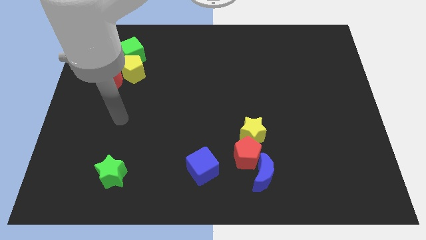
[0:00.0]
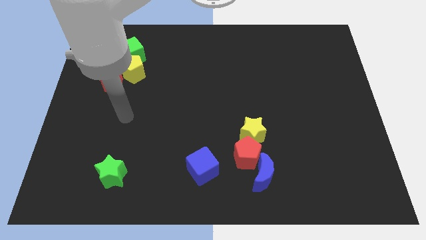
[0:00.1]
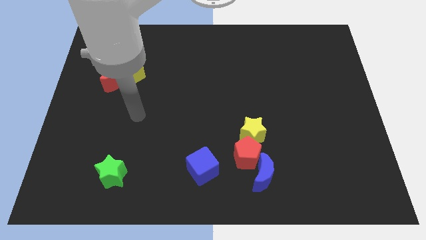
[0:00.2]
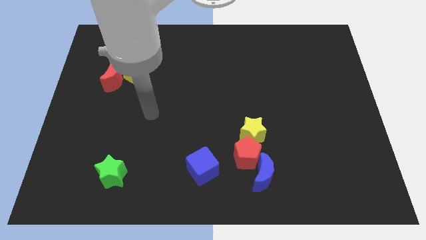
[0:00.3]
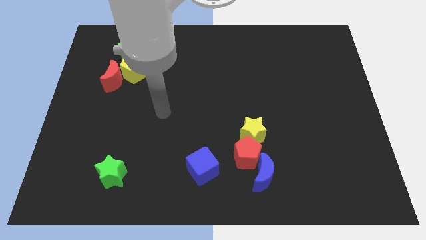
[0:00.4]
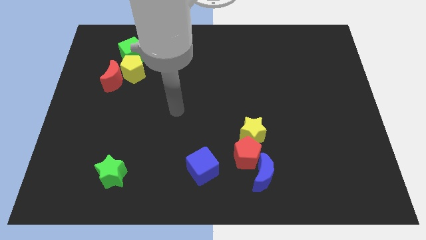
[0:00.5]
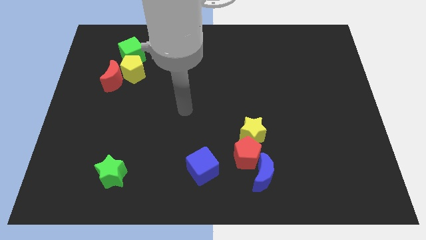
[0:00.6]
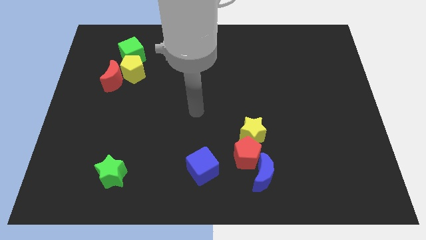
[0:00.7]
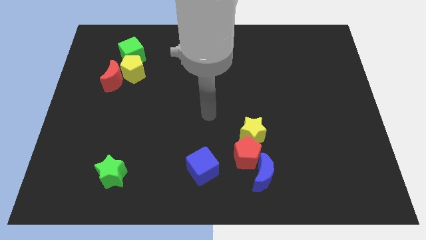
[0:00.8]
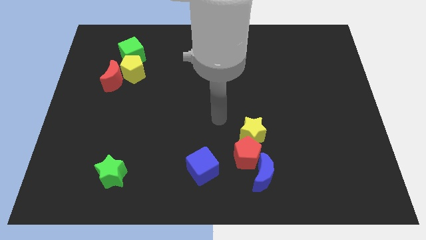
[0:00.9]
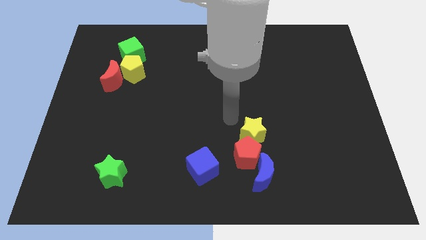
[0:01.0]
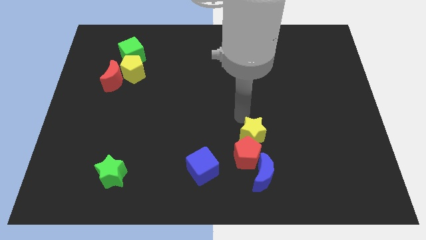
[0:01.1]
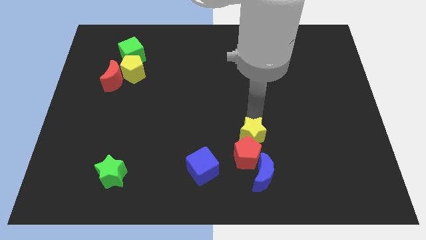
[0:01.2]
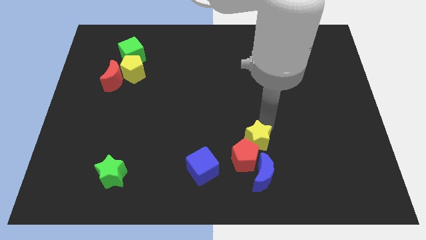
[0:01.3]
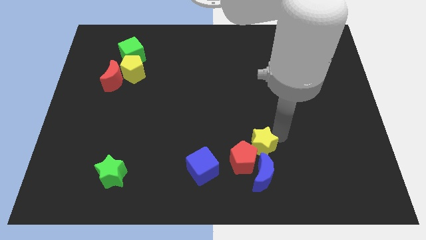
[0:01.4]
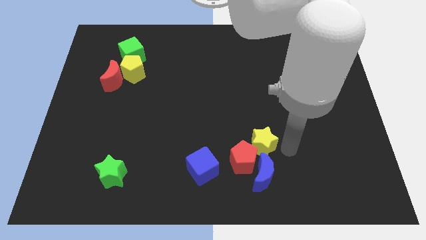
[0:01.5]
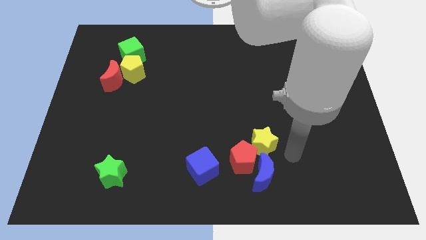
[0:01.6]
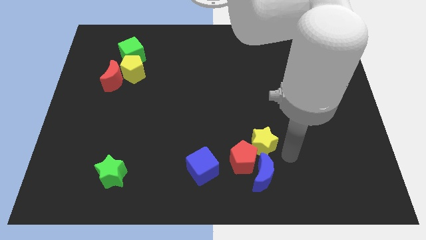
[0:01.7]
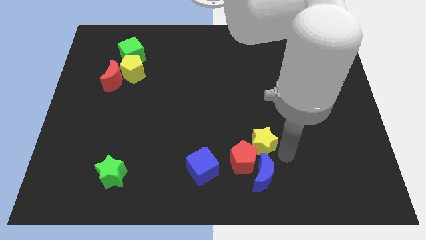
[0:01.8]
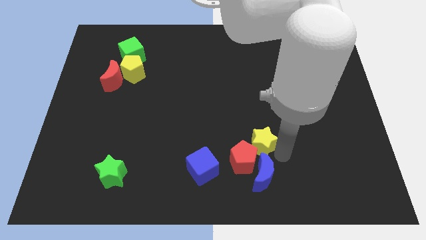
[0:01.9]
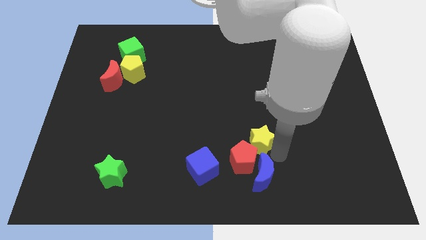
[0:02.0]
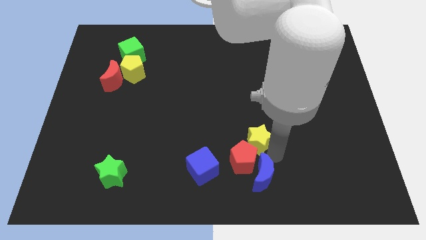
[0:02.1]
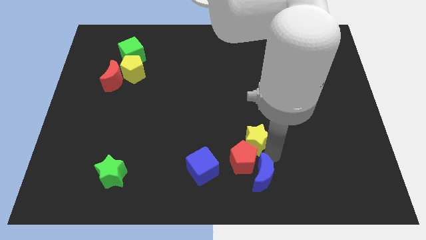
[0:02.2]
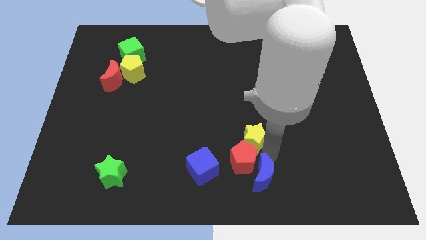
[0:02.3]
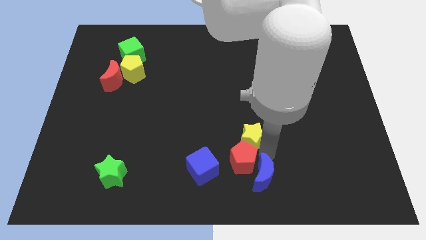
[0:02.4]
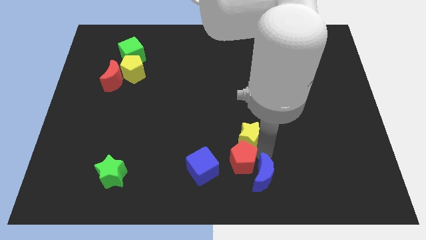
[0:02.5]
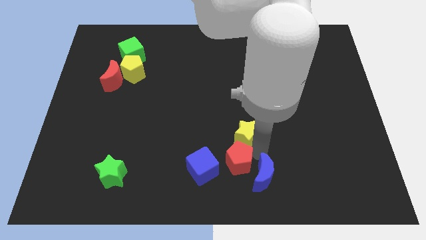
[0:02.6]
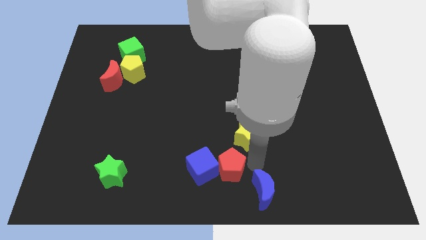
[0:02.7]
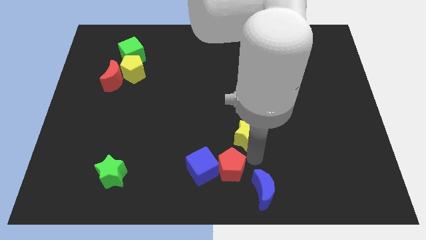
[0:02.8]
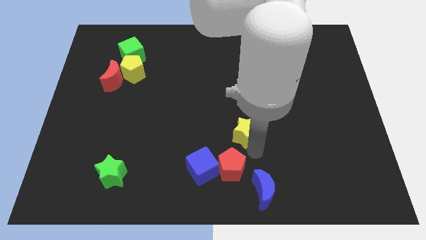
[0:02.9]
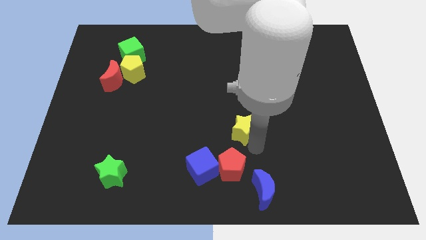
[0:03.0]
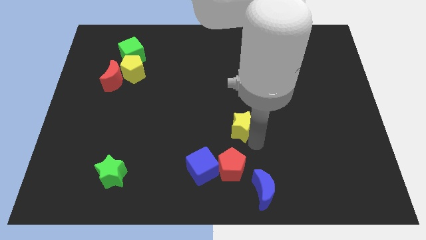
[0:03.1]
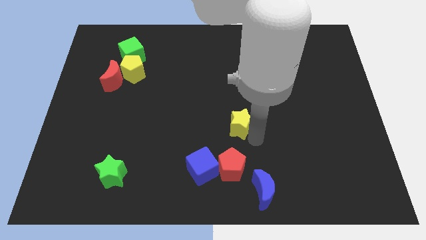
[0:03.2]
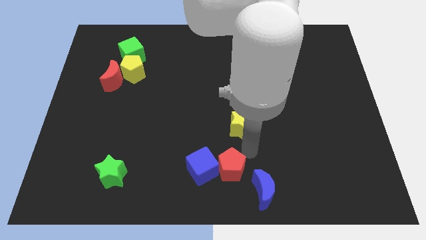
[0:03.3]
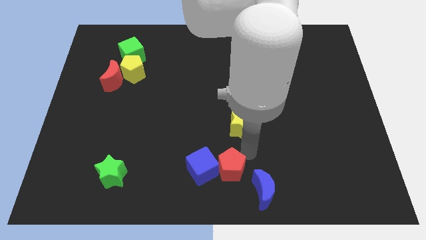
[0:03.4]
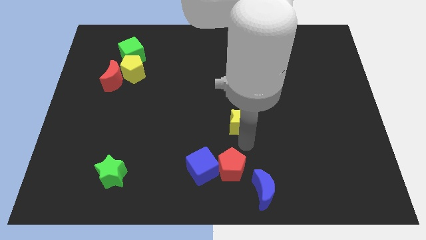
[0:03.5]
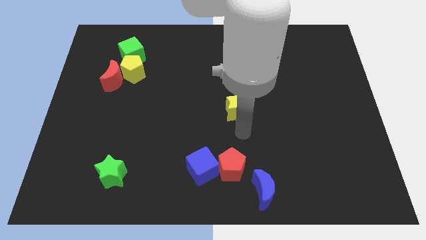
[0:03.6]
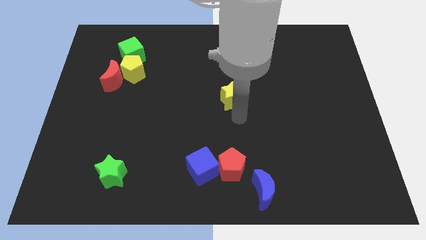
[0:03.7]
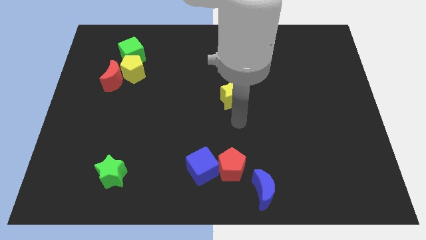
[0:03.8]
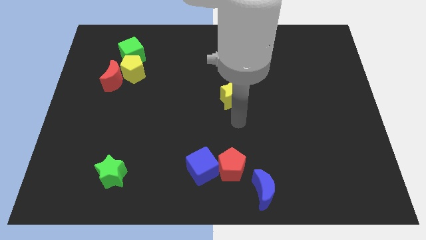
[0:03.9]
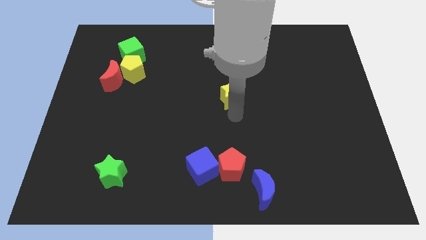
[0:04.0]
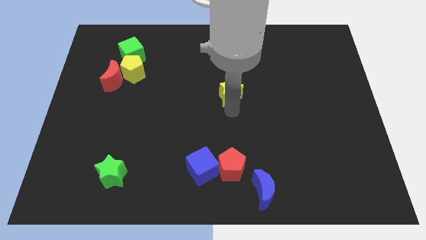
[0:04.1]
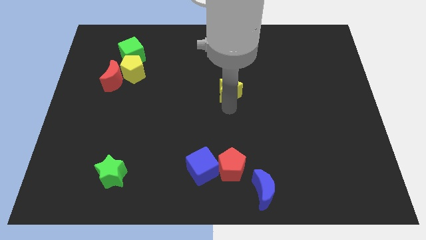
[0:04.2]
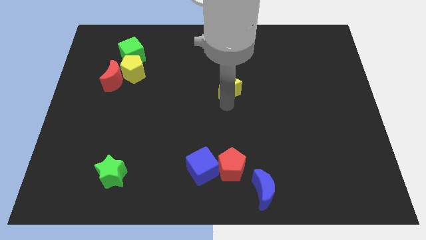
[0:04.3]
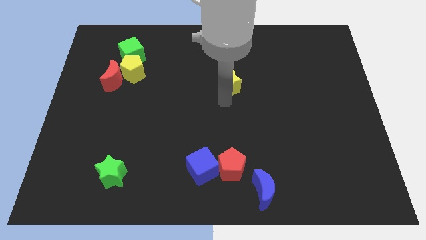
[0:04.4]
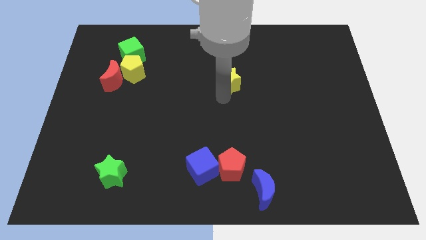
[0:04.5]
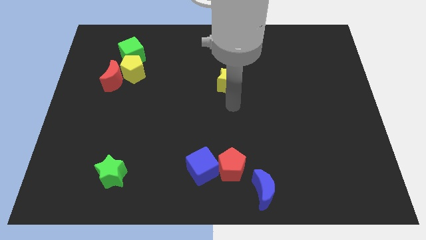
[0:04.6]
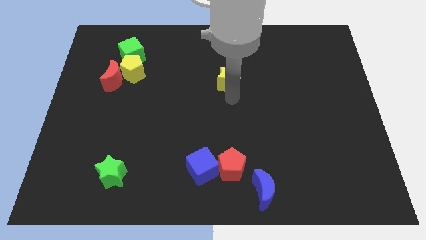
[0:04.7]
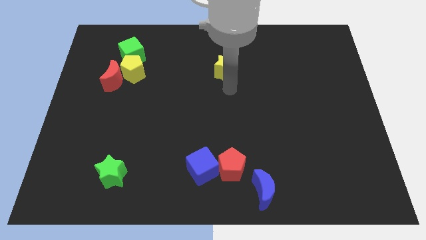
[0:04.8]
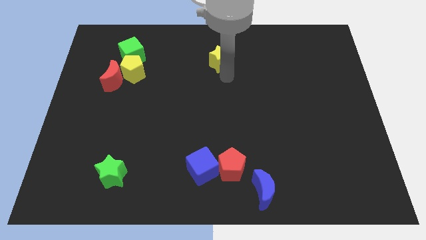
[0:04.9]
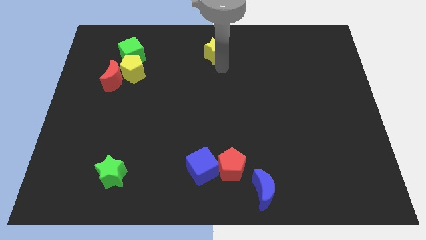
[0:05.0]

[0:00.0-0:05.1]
put the yellow star to the top

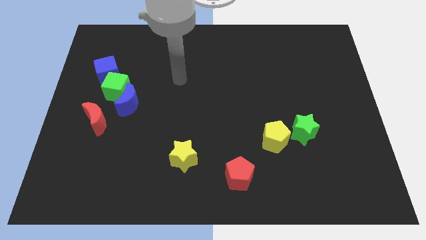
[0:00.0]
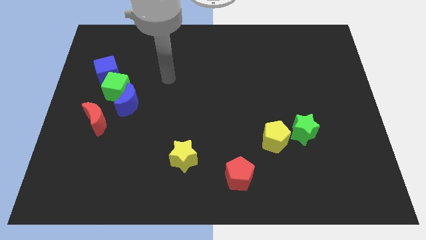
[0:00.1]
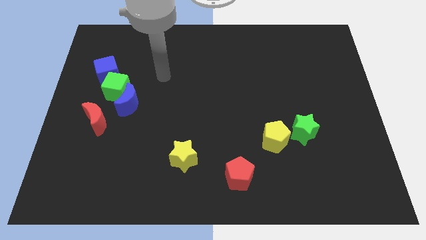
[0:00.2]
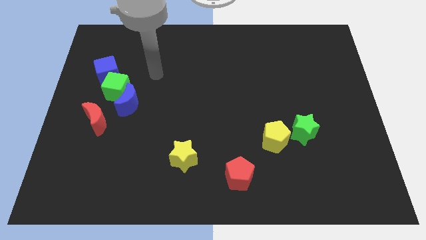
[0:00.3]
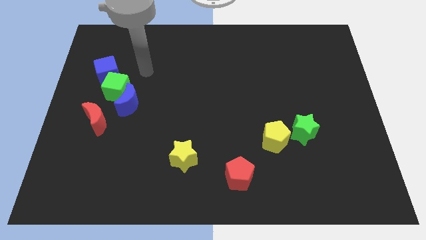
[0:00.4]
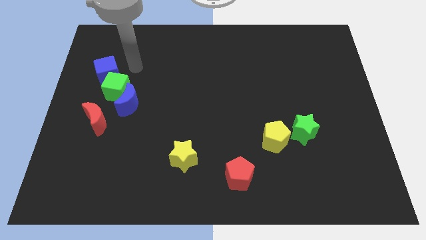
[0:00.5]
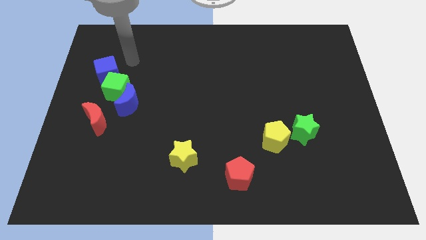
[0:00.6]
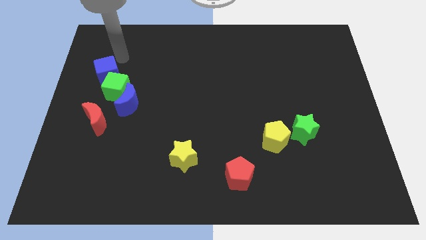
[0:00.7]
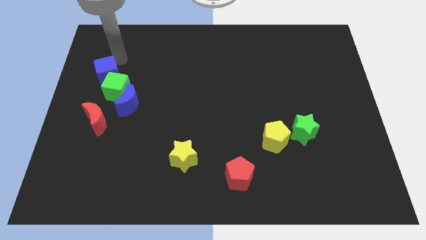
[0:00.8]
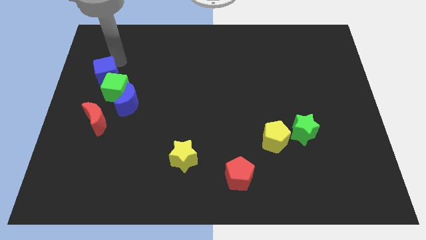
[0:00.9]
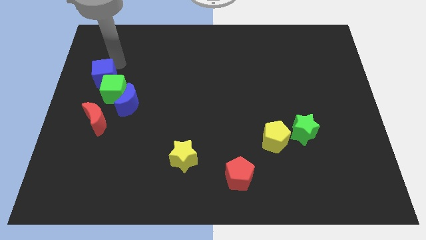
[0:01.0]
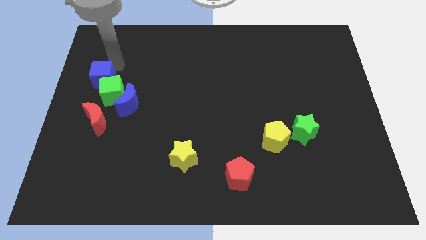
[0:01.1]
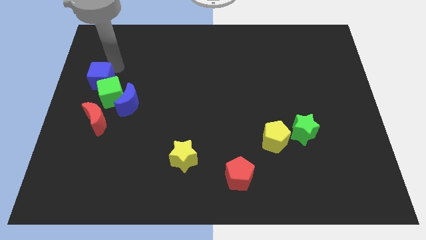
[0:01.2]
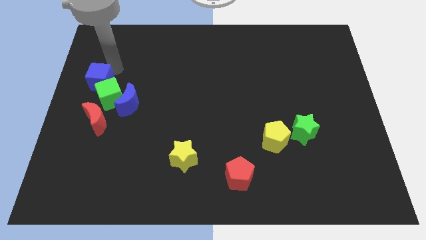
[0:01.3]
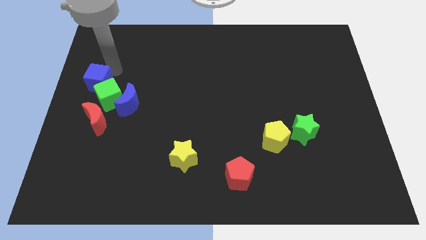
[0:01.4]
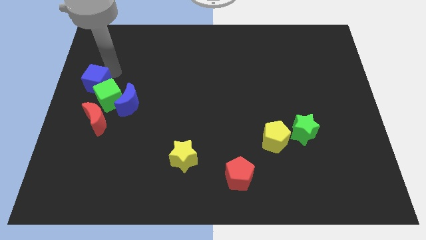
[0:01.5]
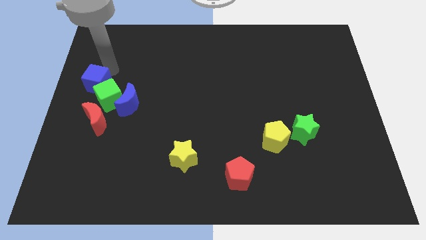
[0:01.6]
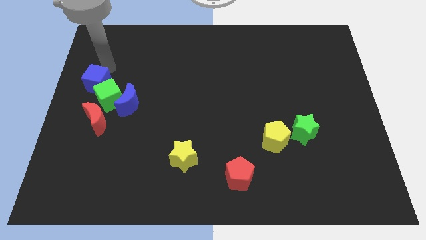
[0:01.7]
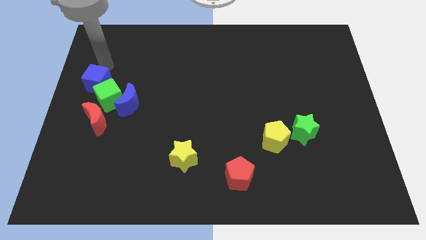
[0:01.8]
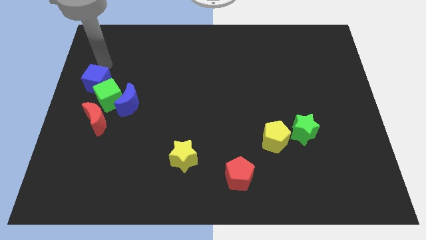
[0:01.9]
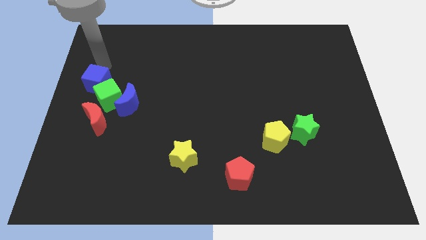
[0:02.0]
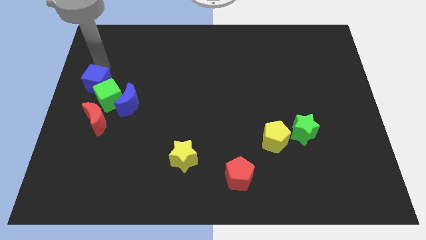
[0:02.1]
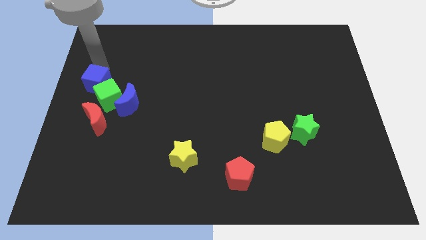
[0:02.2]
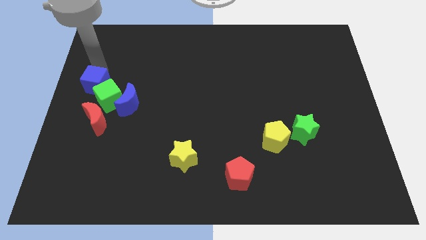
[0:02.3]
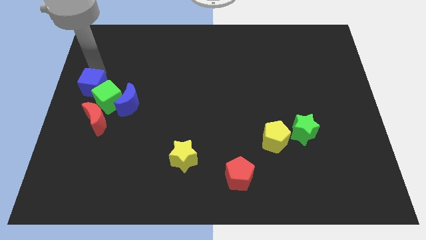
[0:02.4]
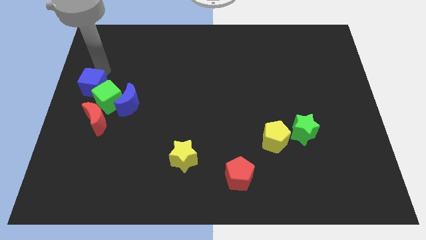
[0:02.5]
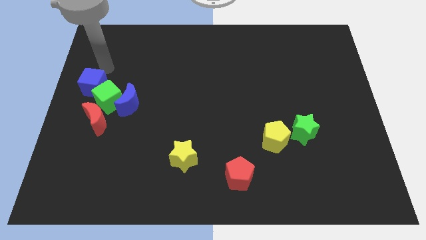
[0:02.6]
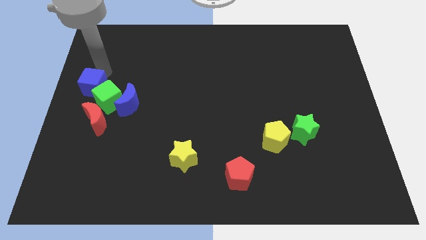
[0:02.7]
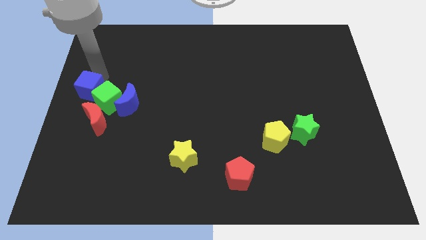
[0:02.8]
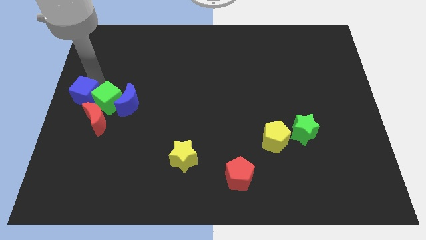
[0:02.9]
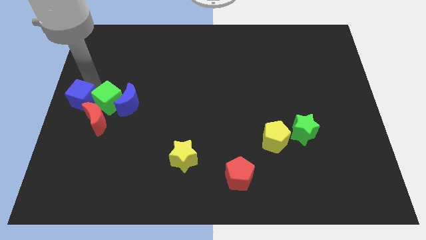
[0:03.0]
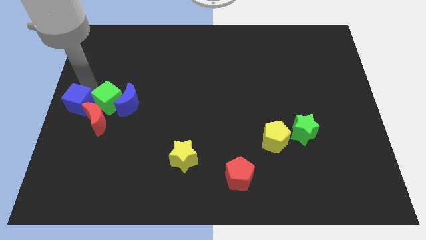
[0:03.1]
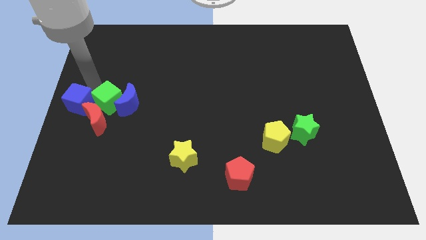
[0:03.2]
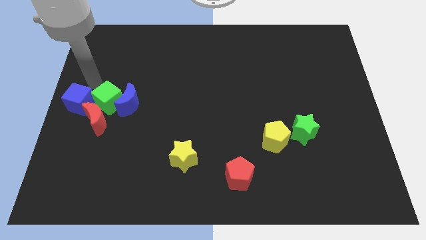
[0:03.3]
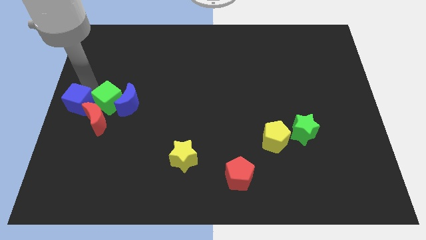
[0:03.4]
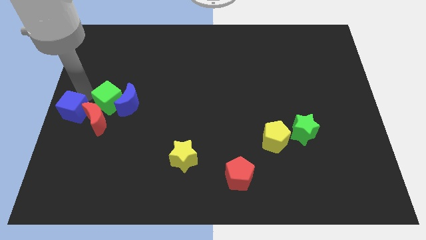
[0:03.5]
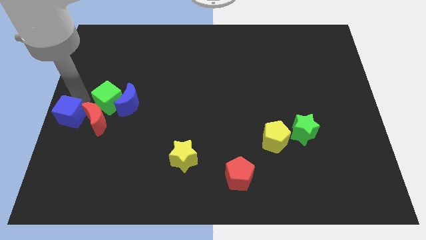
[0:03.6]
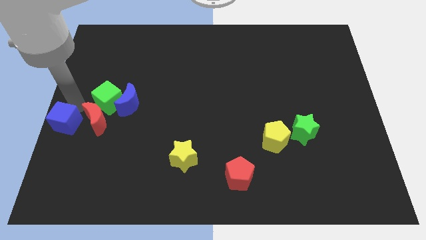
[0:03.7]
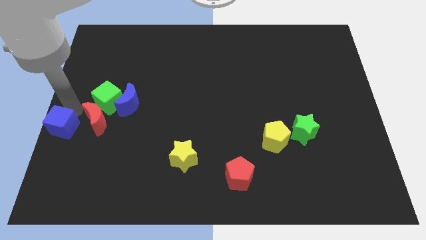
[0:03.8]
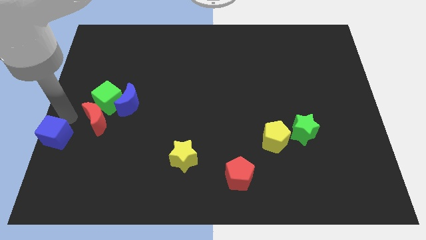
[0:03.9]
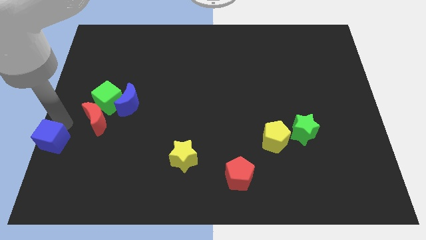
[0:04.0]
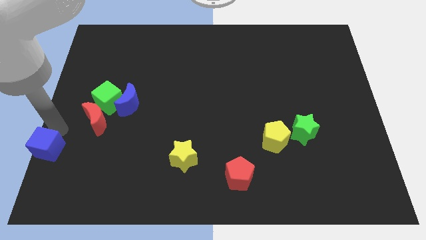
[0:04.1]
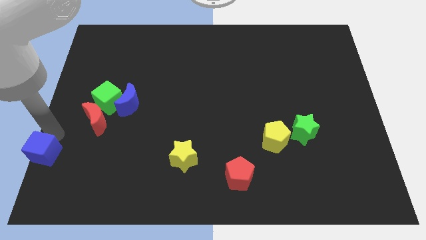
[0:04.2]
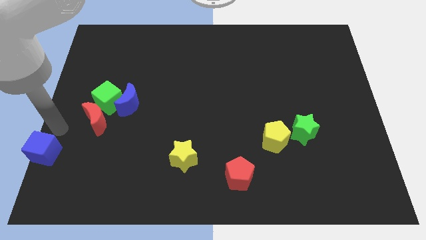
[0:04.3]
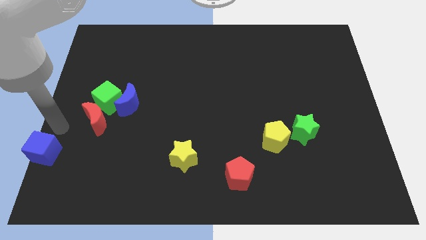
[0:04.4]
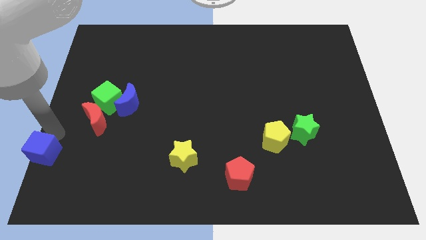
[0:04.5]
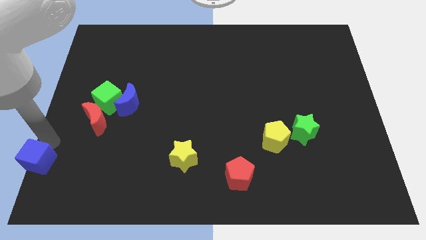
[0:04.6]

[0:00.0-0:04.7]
put the blue cube to the bottom left of the board
